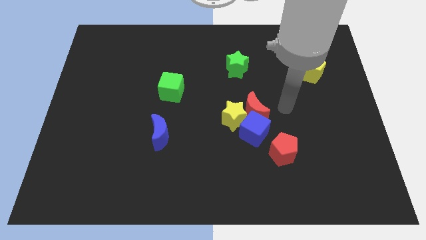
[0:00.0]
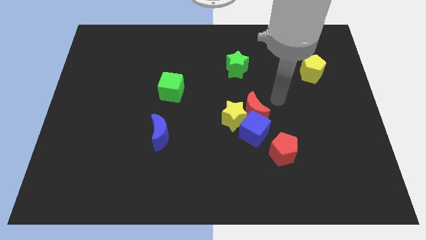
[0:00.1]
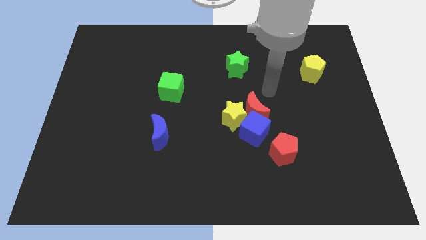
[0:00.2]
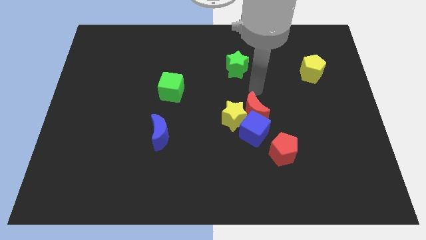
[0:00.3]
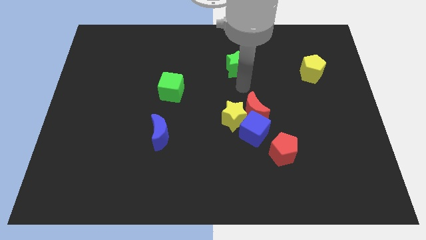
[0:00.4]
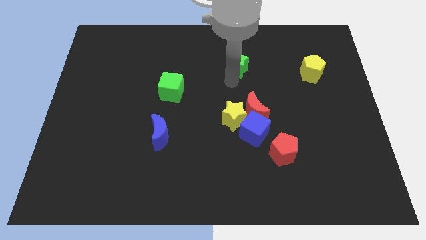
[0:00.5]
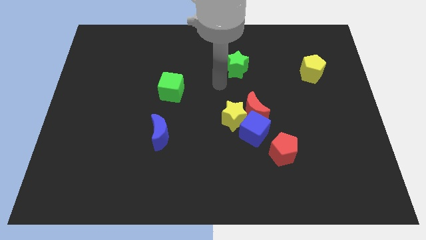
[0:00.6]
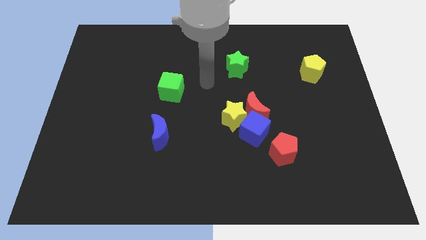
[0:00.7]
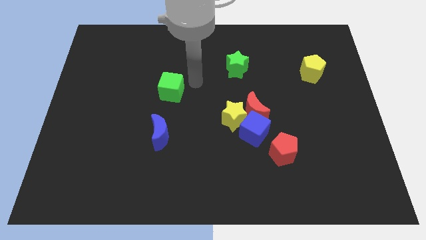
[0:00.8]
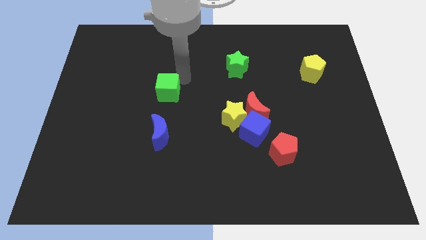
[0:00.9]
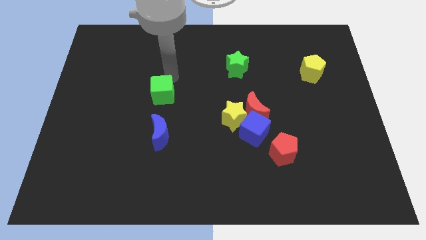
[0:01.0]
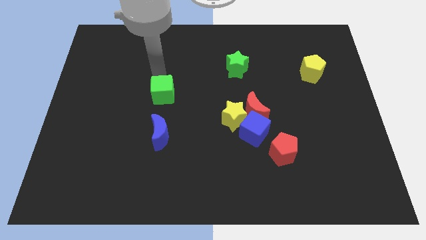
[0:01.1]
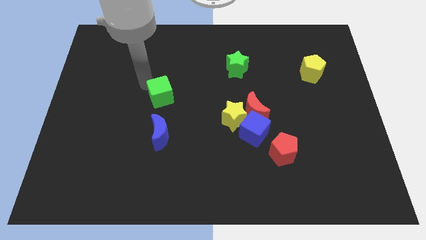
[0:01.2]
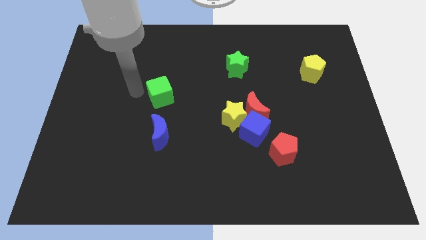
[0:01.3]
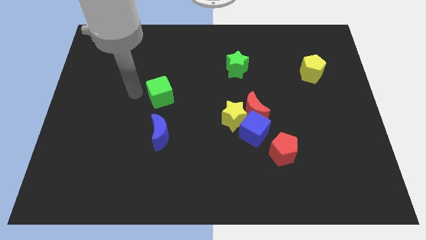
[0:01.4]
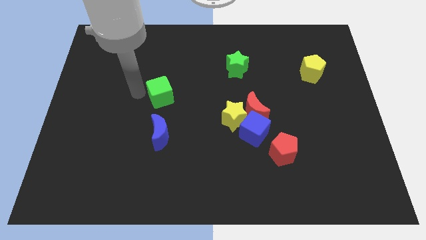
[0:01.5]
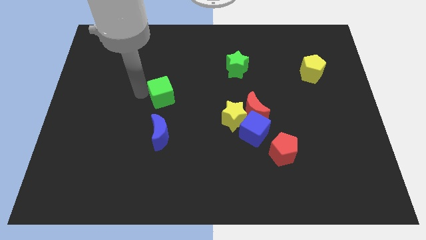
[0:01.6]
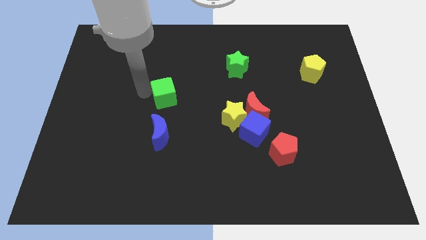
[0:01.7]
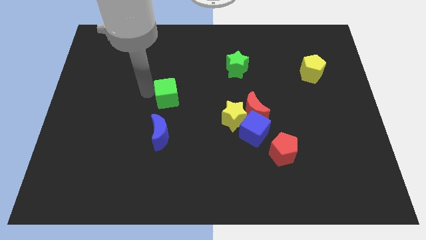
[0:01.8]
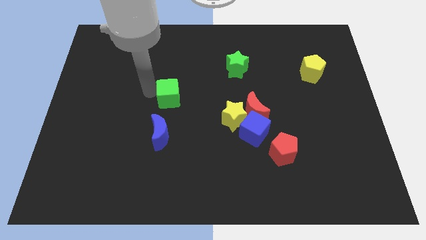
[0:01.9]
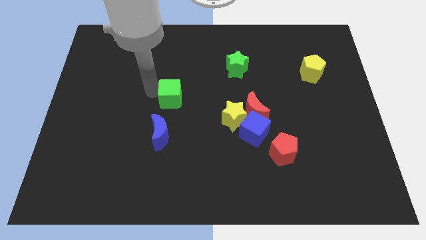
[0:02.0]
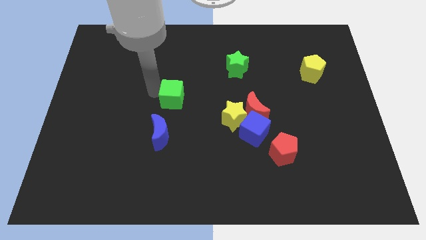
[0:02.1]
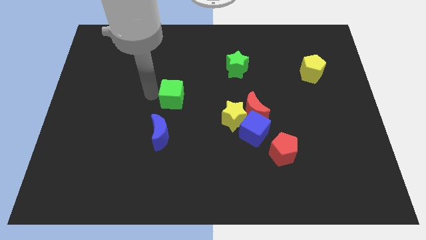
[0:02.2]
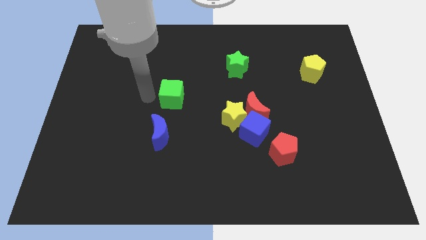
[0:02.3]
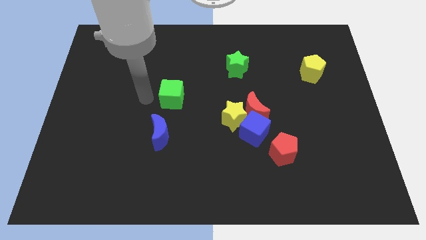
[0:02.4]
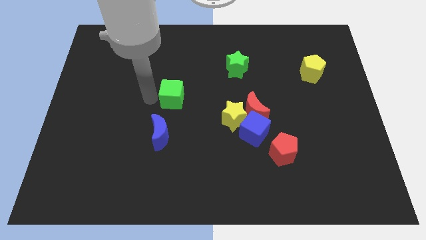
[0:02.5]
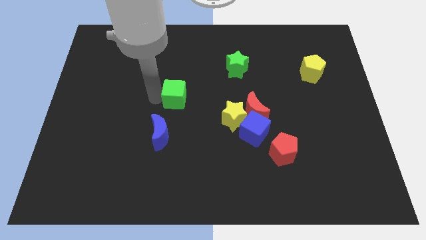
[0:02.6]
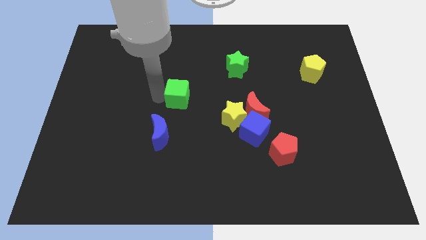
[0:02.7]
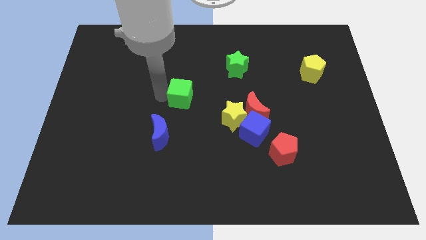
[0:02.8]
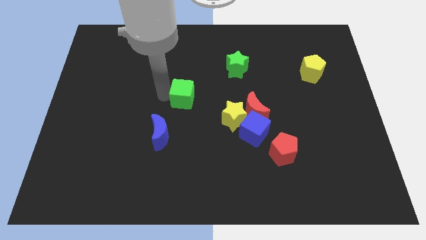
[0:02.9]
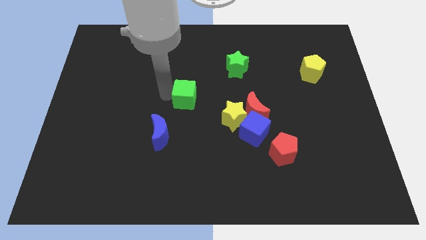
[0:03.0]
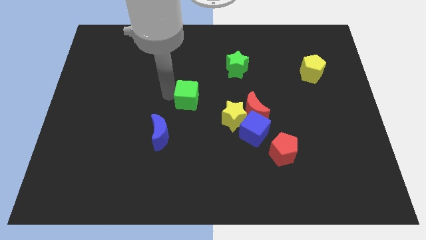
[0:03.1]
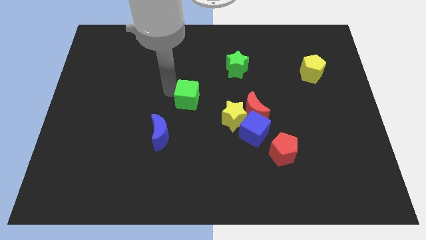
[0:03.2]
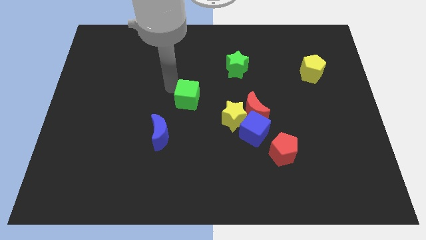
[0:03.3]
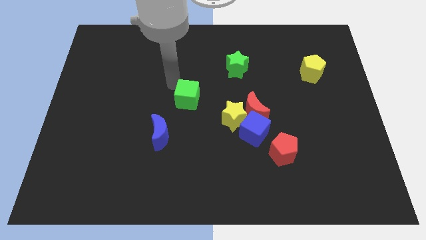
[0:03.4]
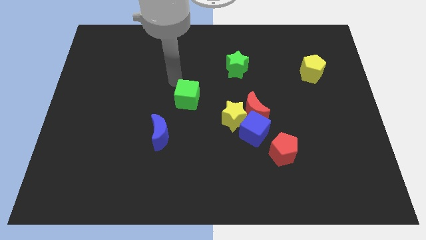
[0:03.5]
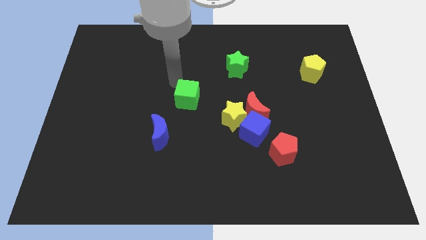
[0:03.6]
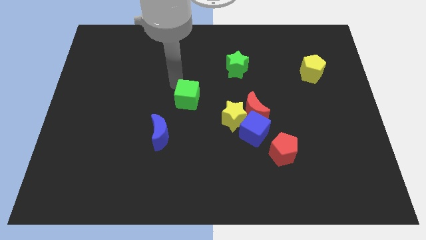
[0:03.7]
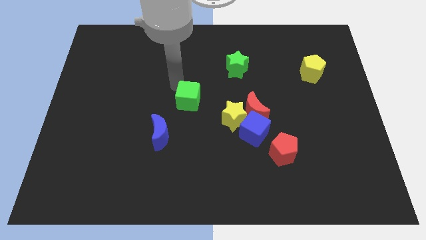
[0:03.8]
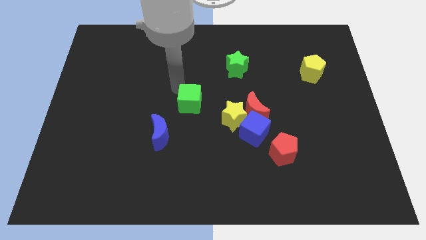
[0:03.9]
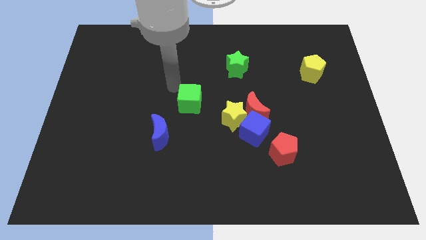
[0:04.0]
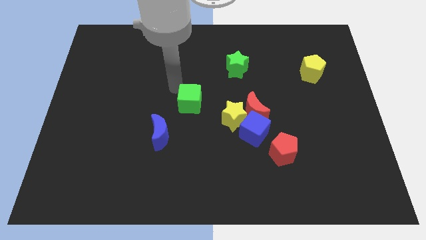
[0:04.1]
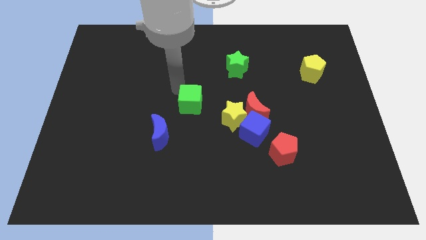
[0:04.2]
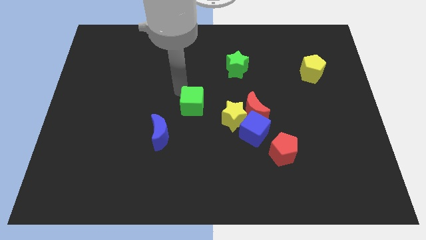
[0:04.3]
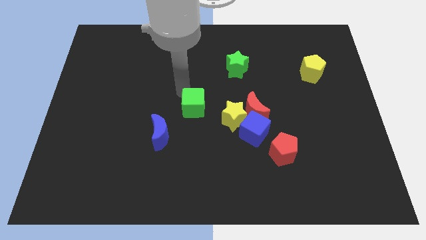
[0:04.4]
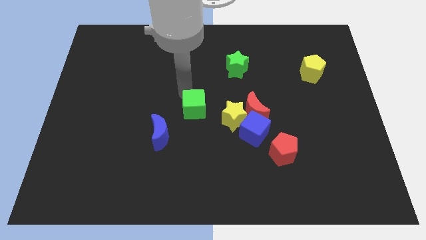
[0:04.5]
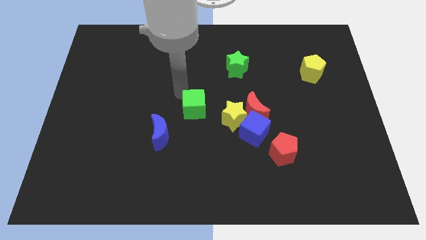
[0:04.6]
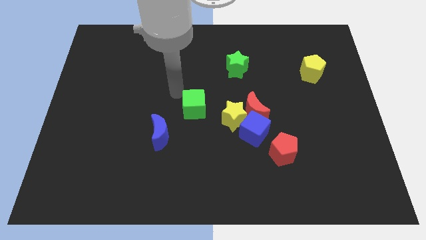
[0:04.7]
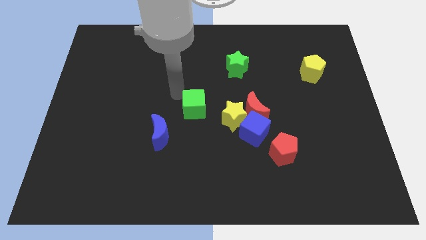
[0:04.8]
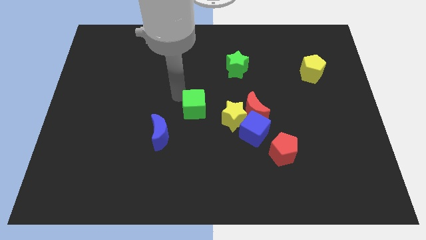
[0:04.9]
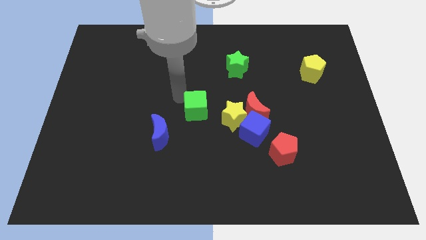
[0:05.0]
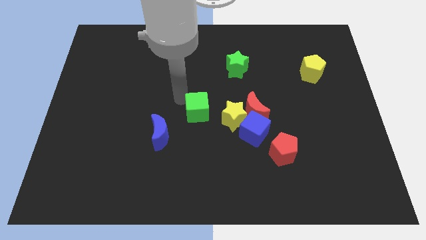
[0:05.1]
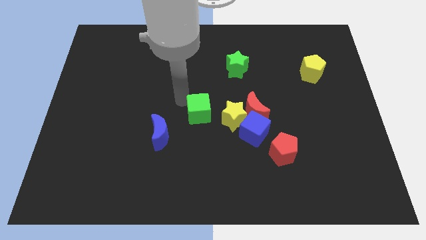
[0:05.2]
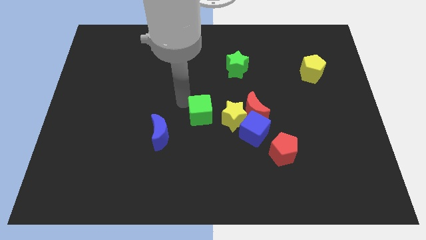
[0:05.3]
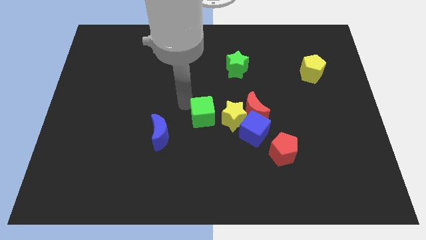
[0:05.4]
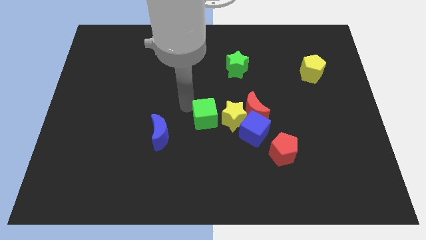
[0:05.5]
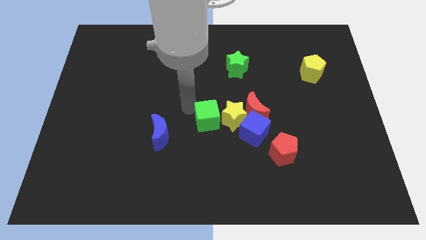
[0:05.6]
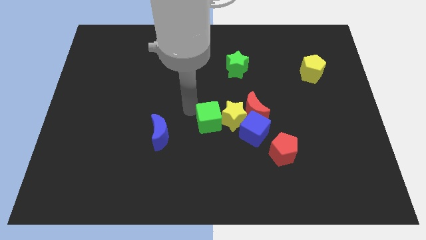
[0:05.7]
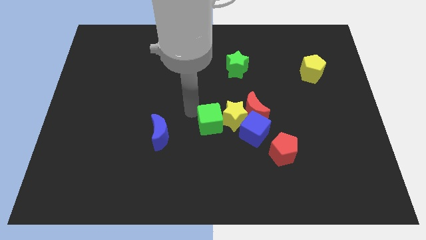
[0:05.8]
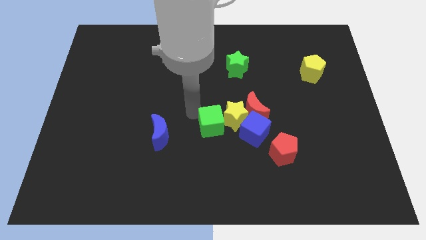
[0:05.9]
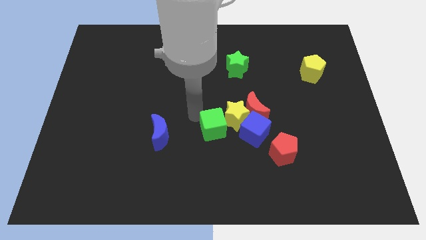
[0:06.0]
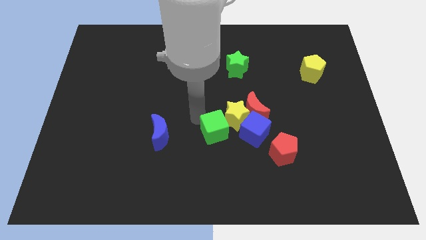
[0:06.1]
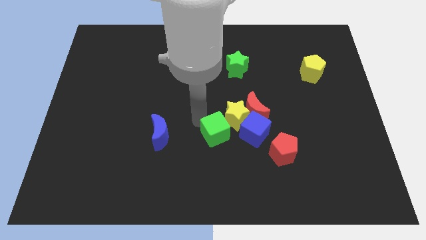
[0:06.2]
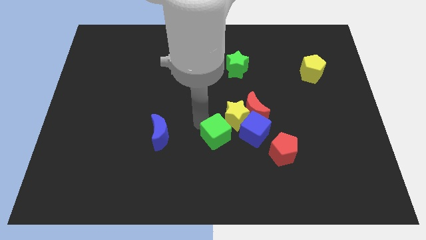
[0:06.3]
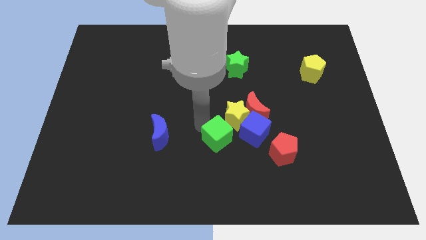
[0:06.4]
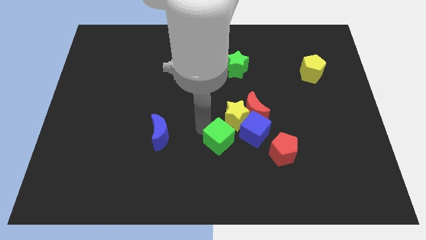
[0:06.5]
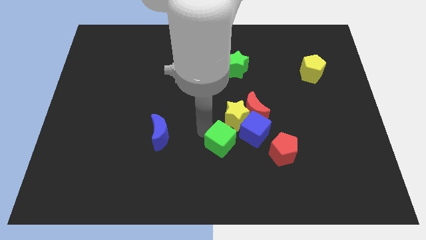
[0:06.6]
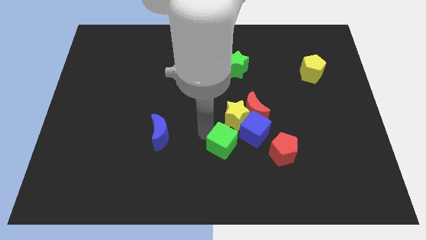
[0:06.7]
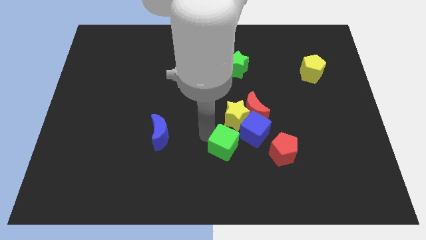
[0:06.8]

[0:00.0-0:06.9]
push the green cube downwards and to the right

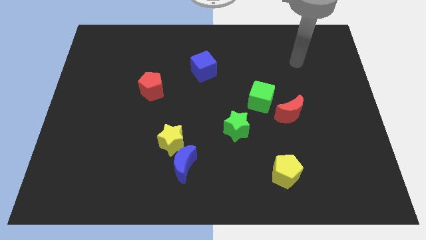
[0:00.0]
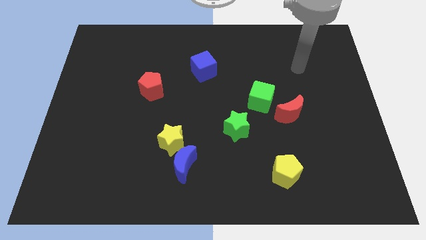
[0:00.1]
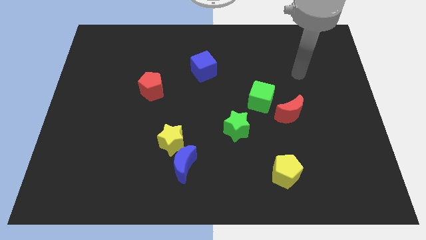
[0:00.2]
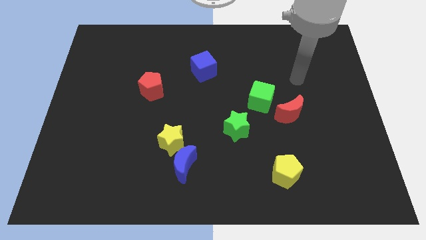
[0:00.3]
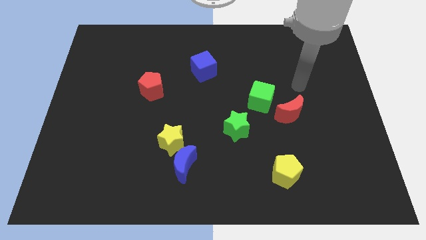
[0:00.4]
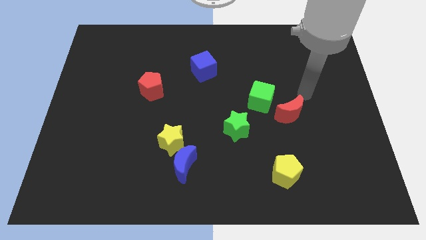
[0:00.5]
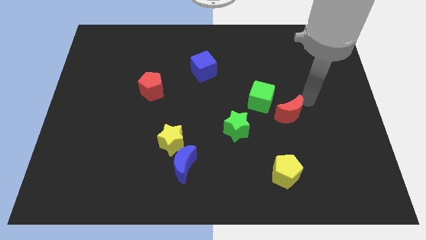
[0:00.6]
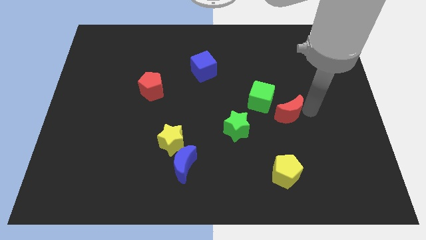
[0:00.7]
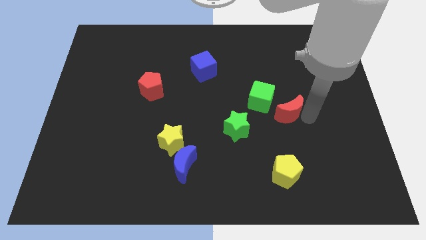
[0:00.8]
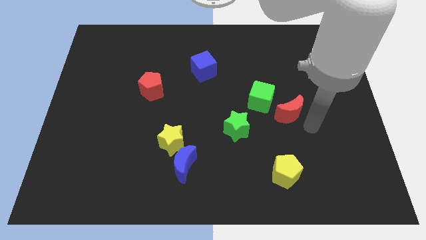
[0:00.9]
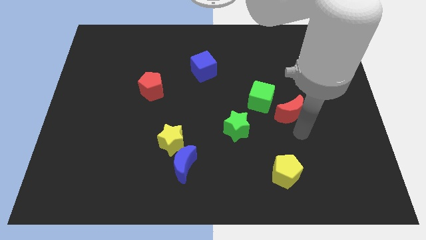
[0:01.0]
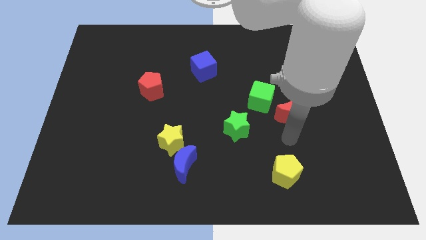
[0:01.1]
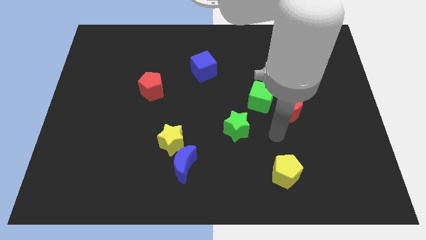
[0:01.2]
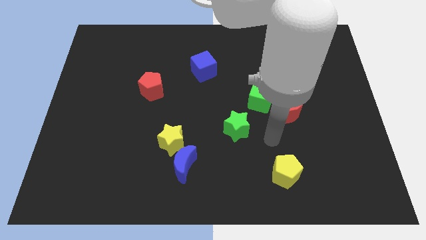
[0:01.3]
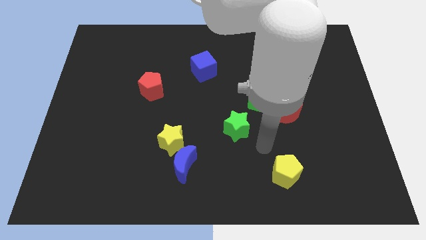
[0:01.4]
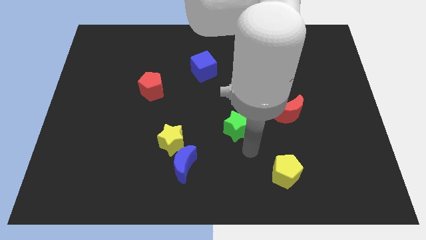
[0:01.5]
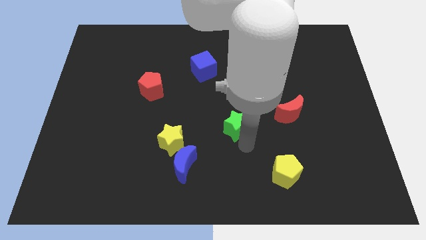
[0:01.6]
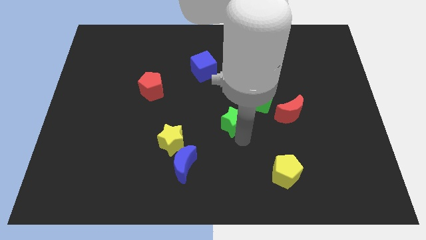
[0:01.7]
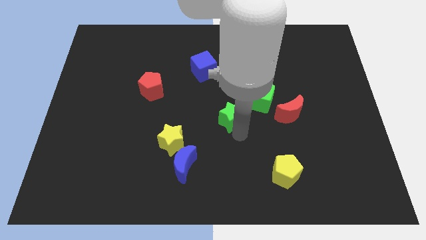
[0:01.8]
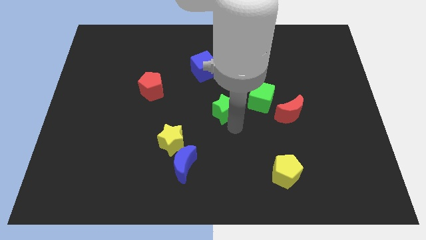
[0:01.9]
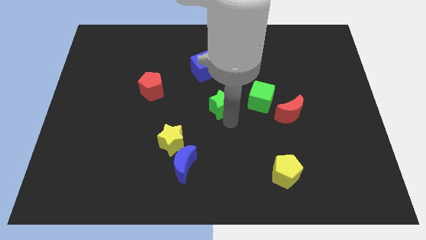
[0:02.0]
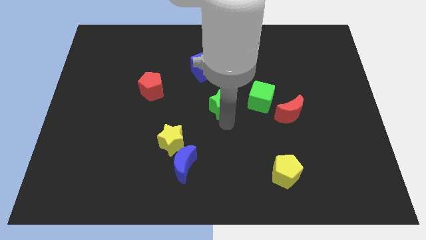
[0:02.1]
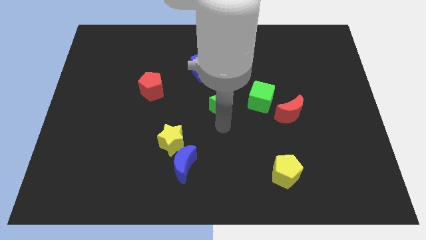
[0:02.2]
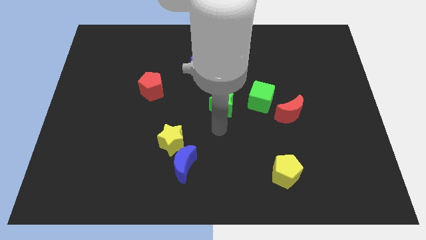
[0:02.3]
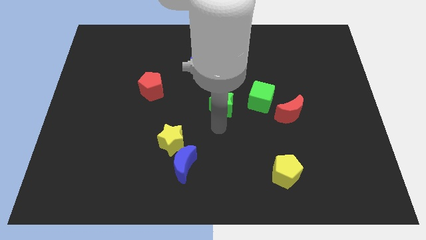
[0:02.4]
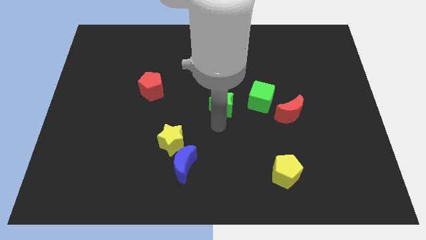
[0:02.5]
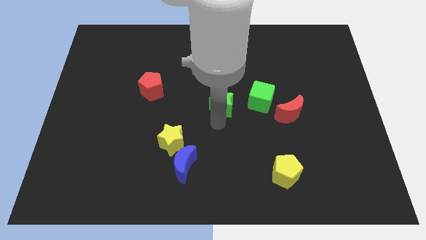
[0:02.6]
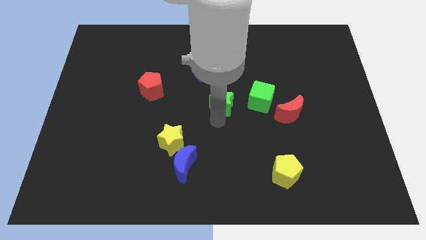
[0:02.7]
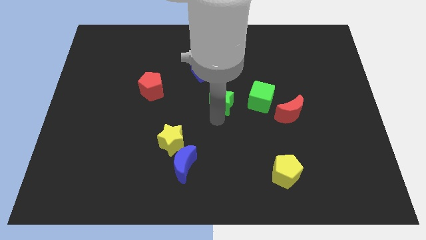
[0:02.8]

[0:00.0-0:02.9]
slightly move the green star up
